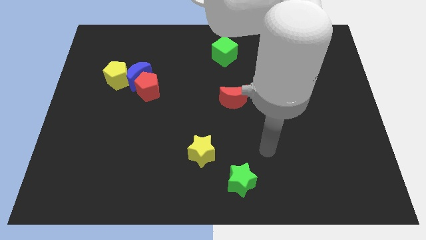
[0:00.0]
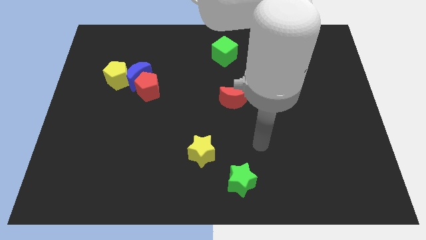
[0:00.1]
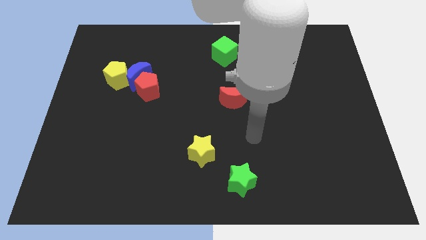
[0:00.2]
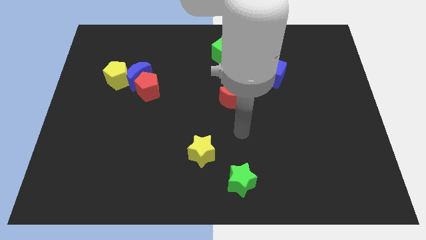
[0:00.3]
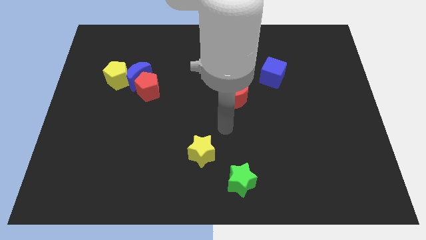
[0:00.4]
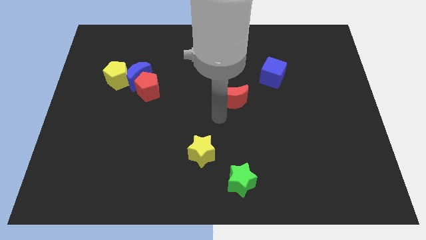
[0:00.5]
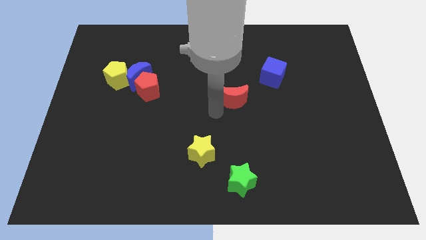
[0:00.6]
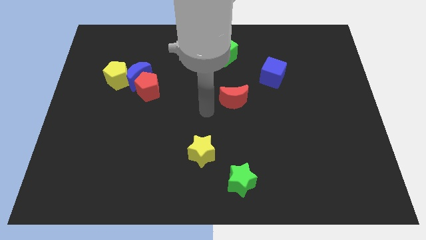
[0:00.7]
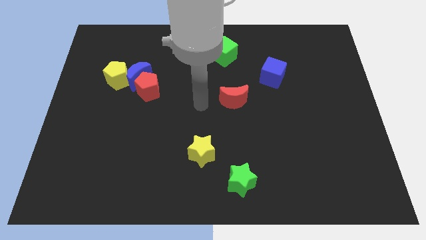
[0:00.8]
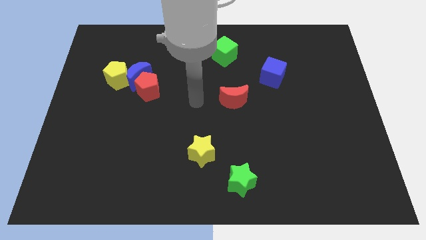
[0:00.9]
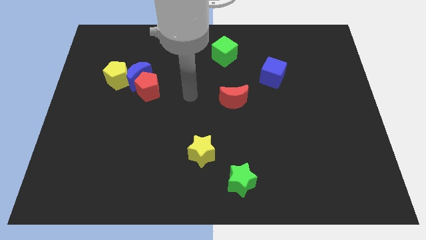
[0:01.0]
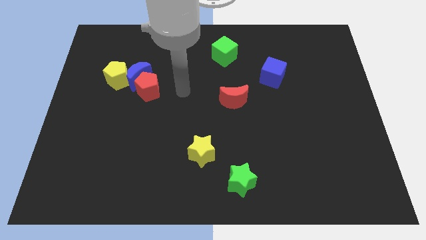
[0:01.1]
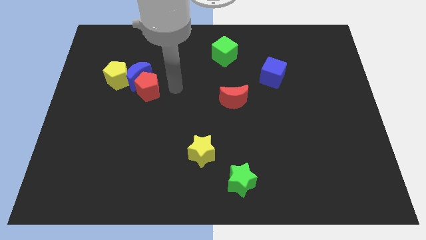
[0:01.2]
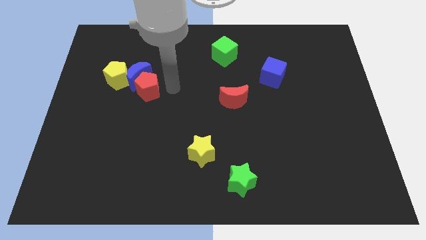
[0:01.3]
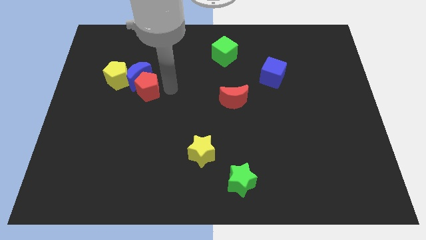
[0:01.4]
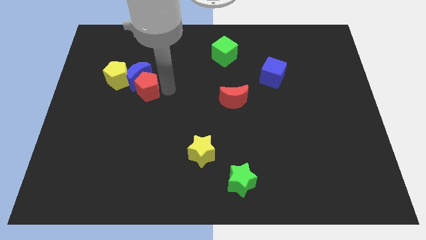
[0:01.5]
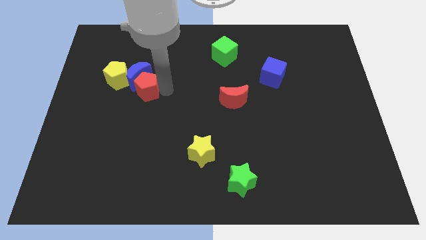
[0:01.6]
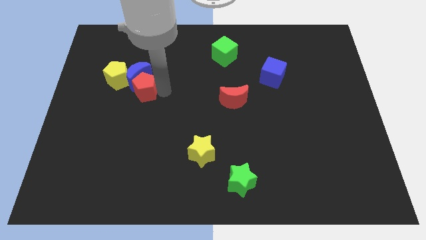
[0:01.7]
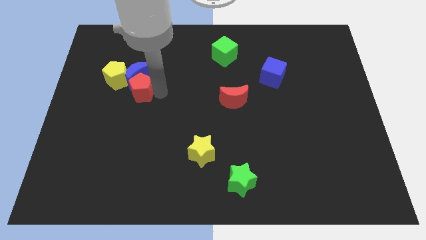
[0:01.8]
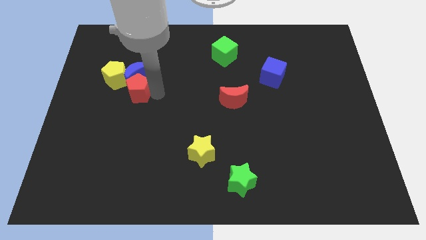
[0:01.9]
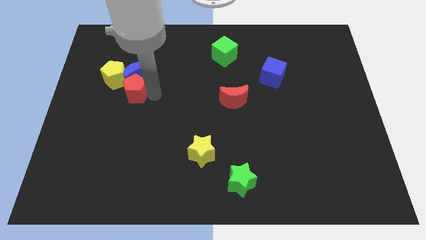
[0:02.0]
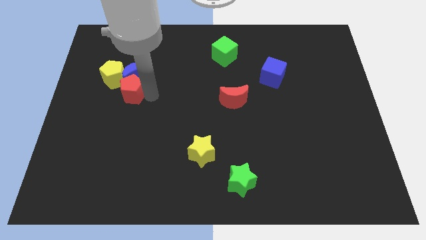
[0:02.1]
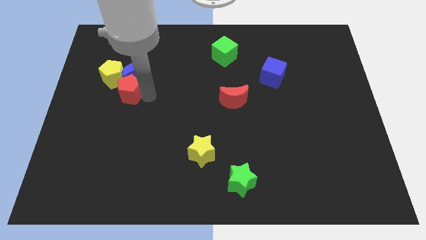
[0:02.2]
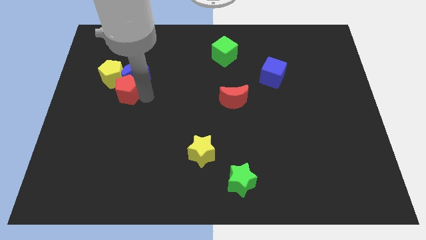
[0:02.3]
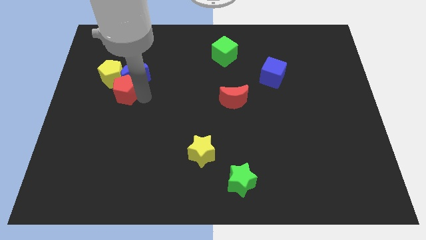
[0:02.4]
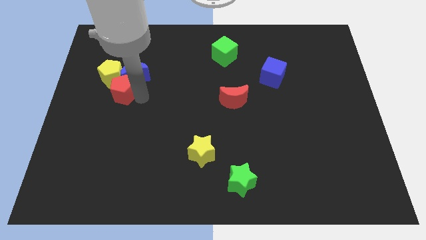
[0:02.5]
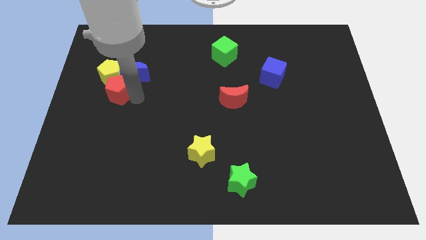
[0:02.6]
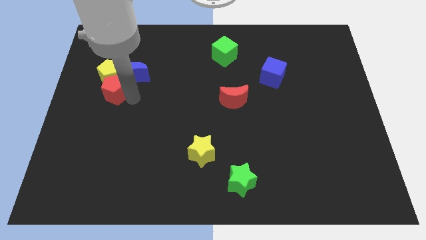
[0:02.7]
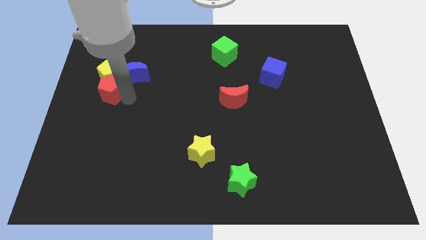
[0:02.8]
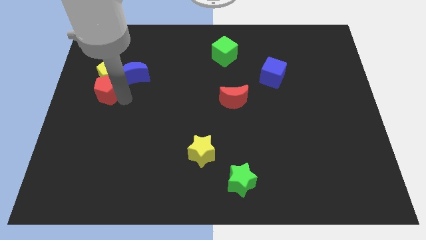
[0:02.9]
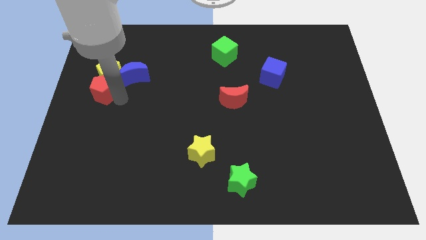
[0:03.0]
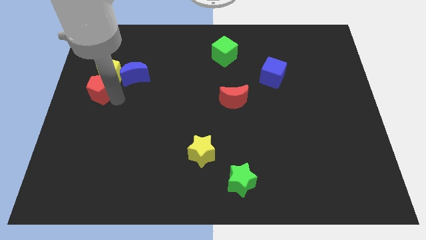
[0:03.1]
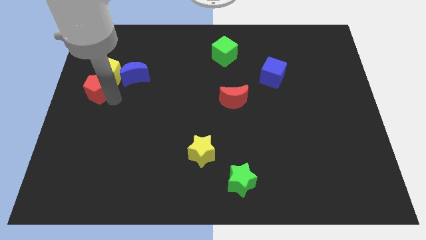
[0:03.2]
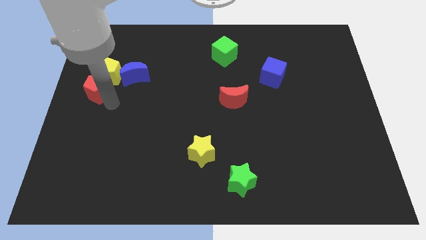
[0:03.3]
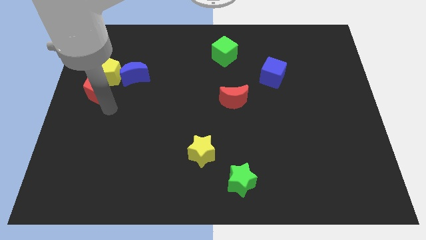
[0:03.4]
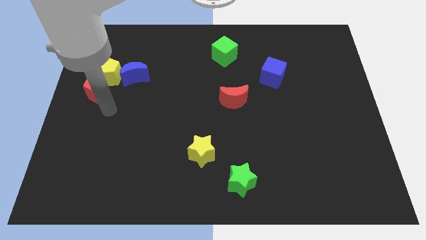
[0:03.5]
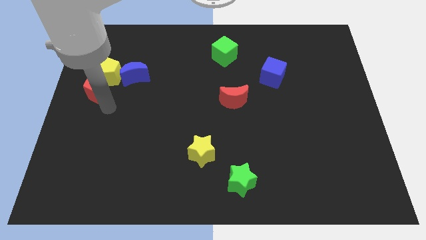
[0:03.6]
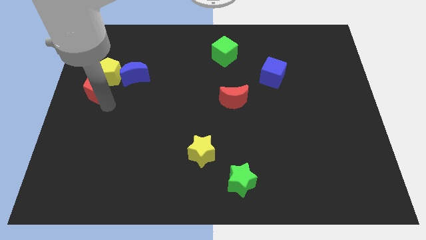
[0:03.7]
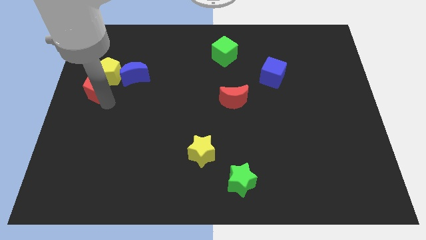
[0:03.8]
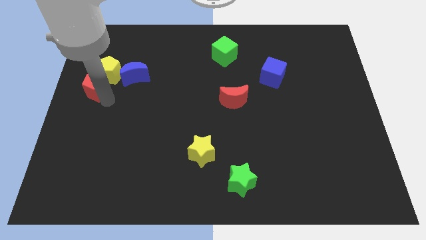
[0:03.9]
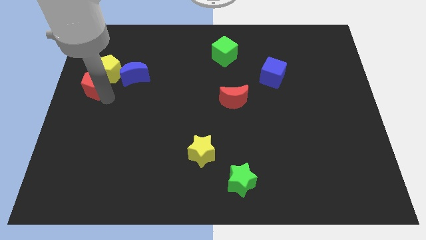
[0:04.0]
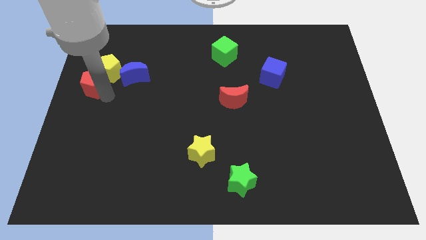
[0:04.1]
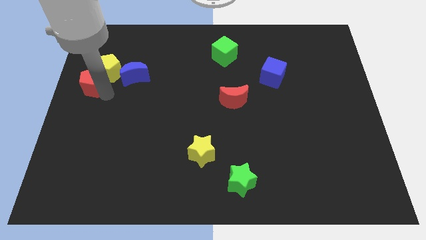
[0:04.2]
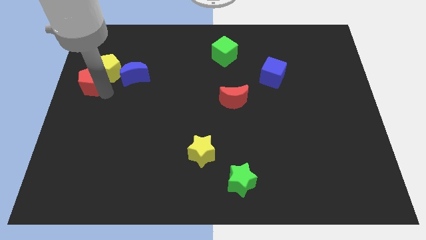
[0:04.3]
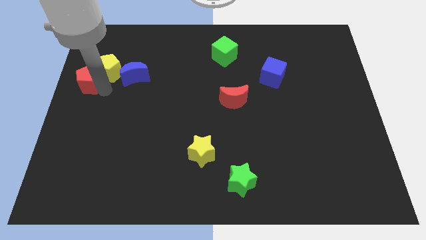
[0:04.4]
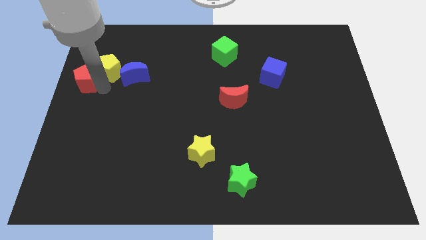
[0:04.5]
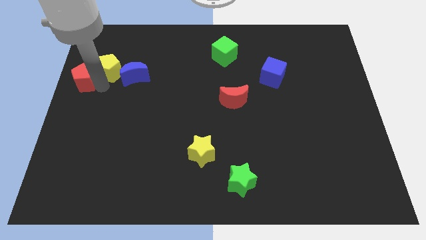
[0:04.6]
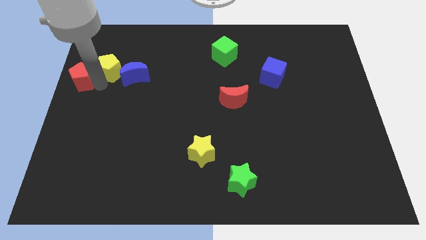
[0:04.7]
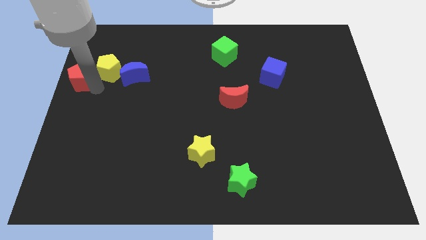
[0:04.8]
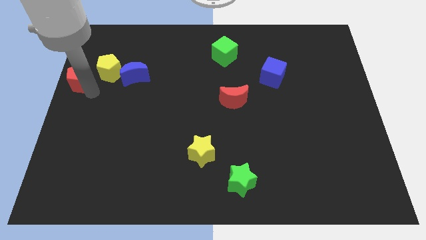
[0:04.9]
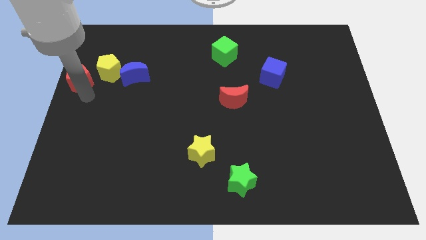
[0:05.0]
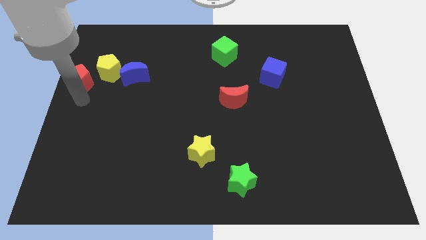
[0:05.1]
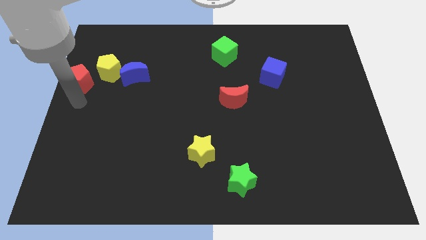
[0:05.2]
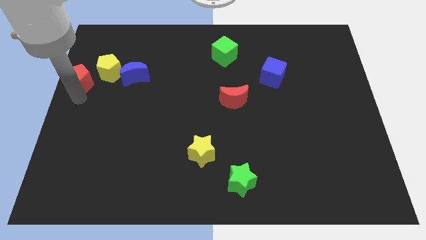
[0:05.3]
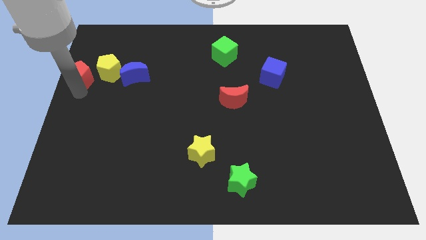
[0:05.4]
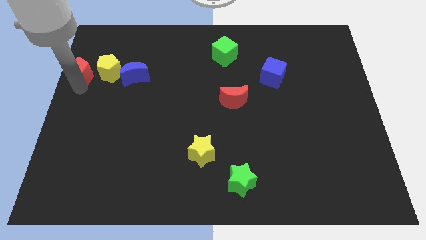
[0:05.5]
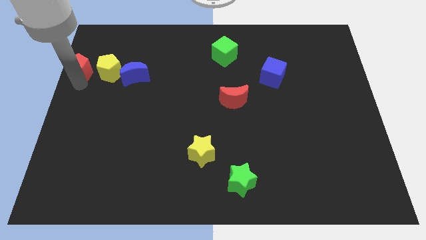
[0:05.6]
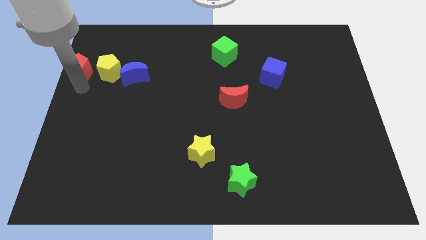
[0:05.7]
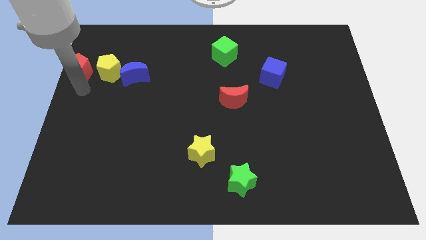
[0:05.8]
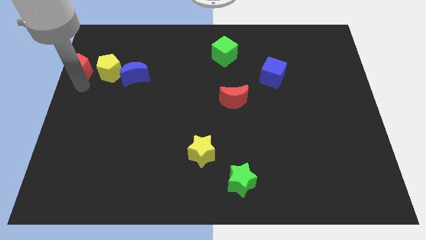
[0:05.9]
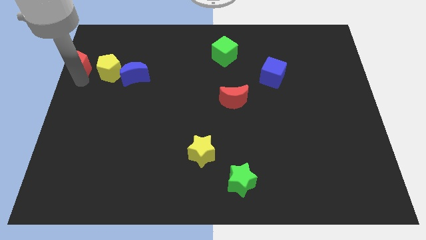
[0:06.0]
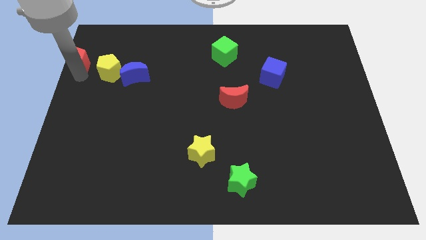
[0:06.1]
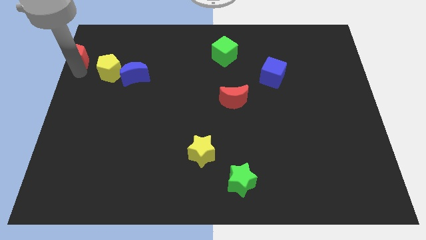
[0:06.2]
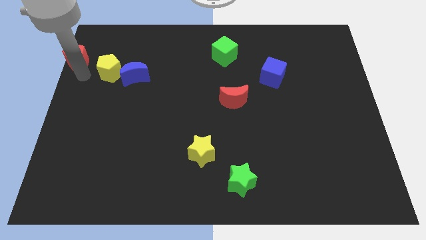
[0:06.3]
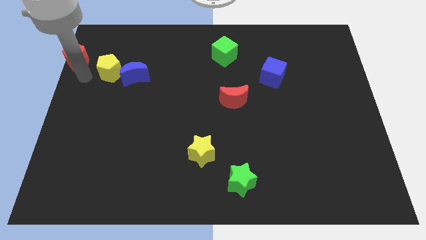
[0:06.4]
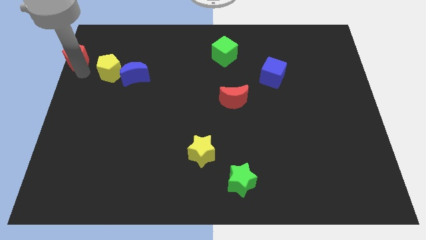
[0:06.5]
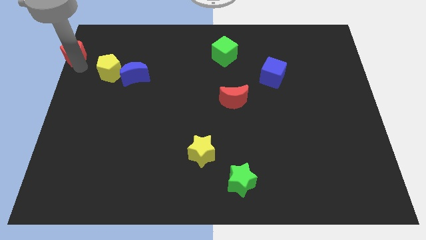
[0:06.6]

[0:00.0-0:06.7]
put the red pentagon to the upper left corner
